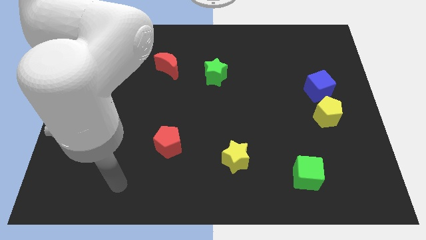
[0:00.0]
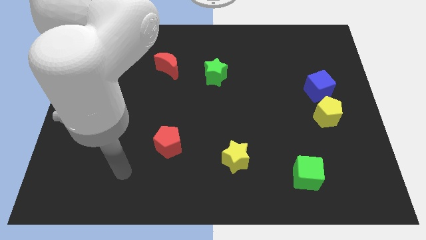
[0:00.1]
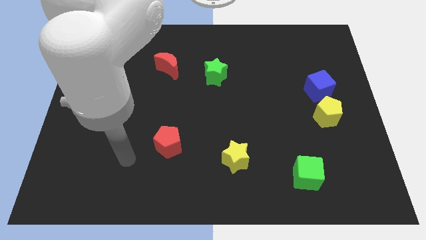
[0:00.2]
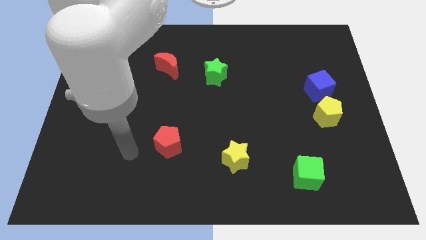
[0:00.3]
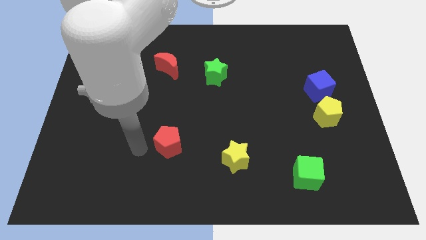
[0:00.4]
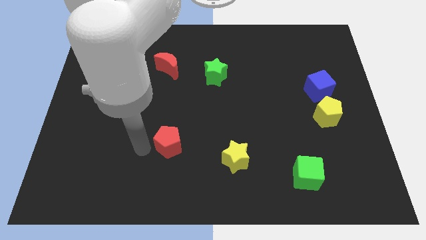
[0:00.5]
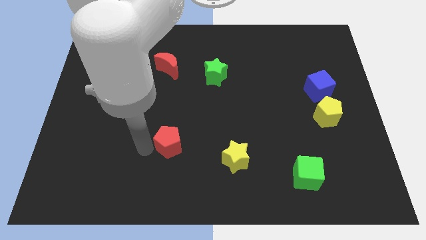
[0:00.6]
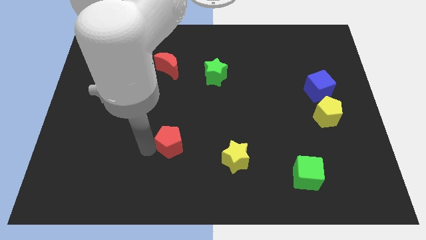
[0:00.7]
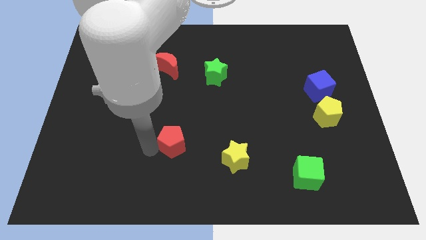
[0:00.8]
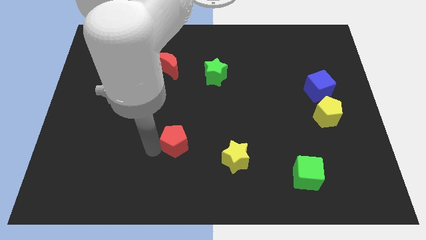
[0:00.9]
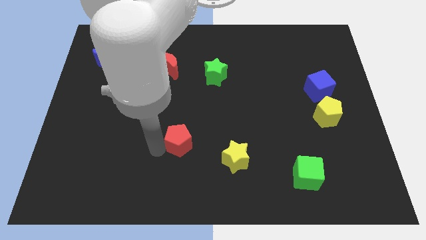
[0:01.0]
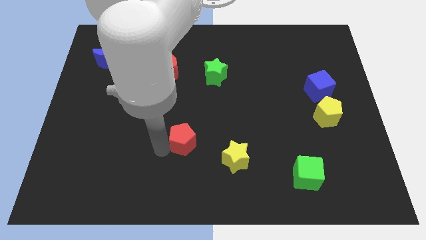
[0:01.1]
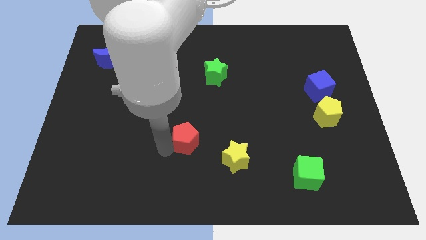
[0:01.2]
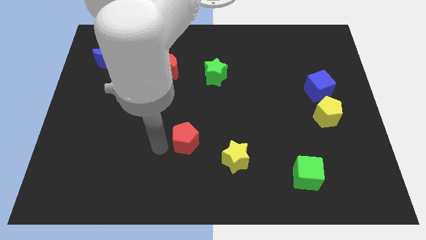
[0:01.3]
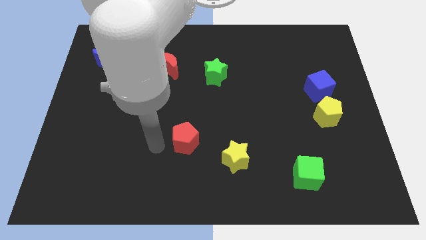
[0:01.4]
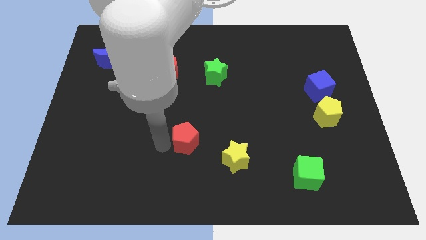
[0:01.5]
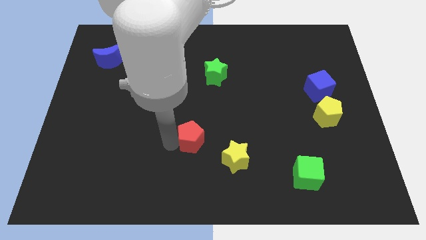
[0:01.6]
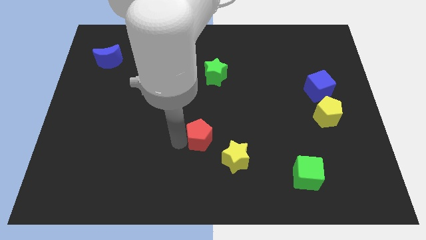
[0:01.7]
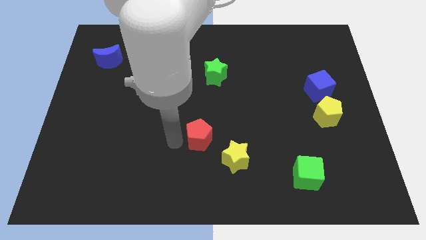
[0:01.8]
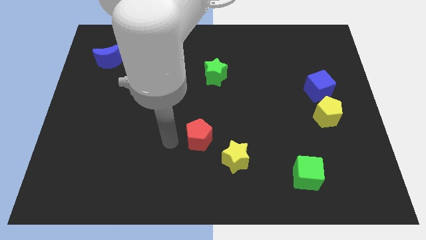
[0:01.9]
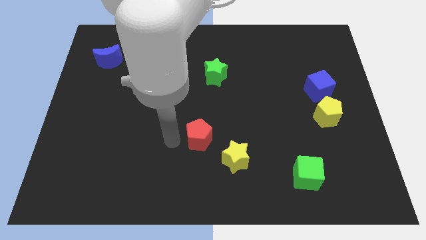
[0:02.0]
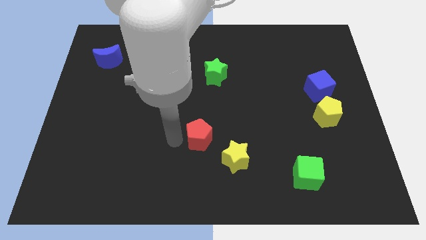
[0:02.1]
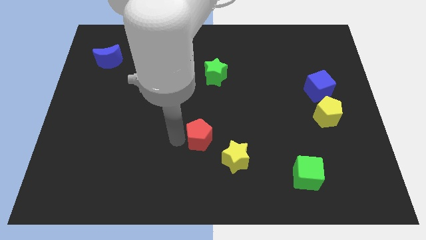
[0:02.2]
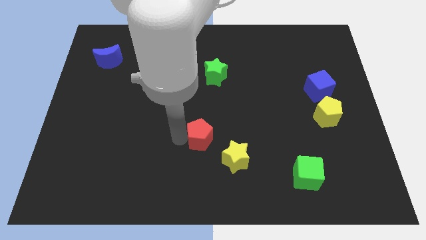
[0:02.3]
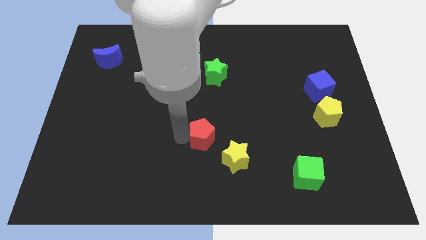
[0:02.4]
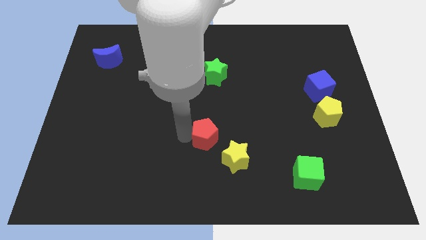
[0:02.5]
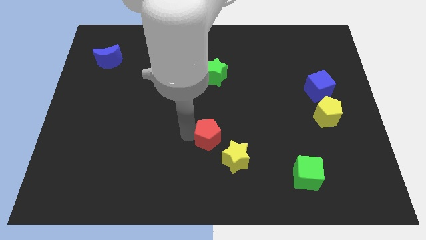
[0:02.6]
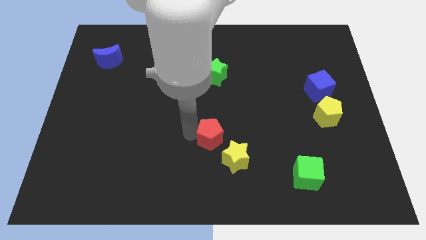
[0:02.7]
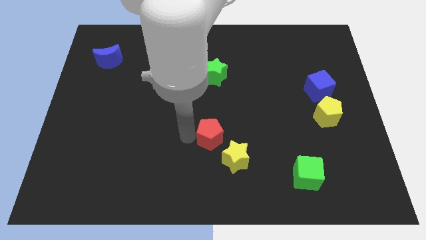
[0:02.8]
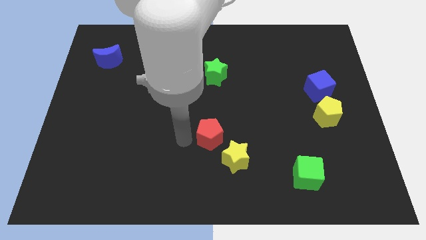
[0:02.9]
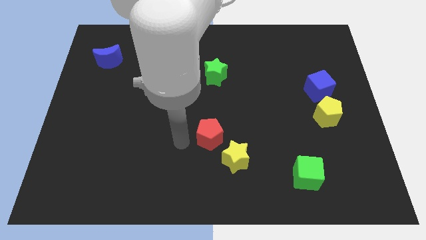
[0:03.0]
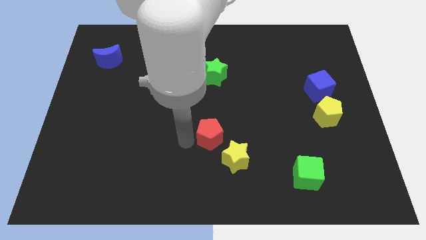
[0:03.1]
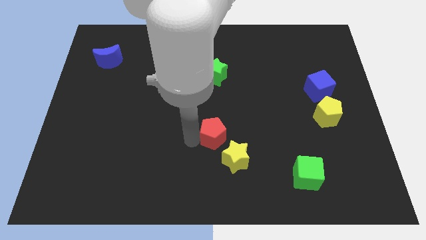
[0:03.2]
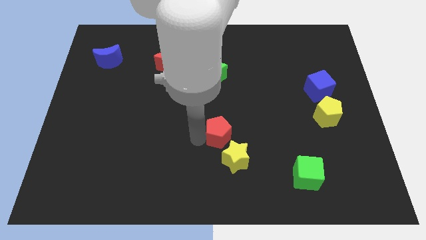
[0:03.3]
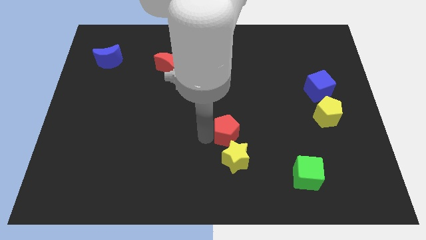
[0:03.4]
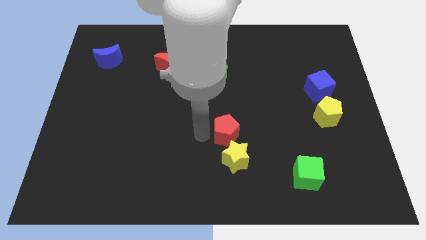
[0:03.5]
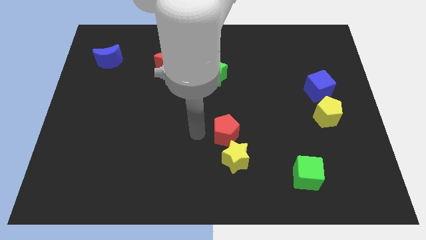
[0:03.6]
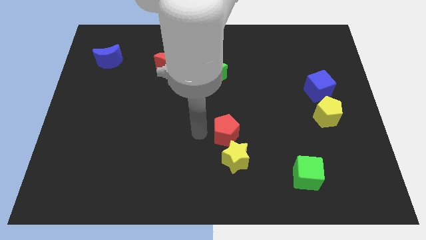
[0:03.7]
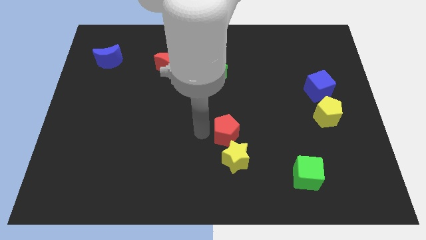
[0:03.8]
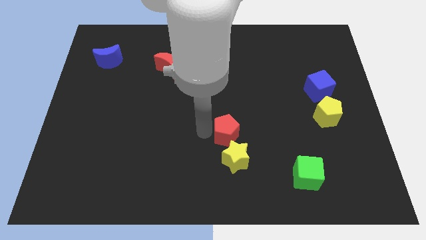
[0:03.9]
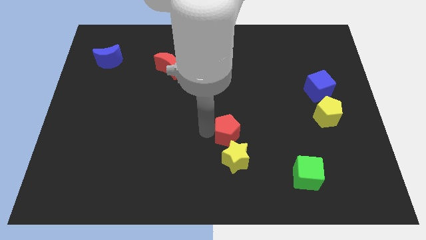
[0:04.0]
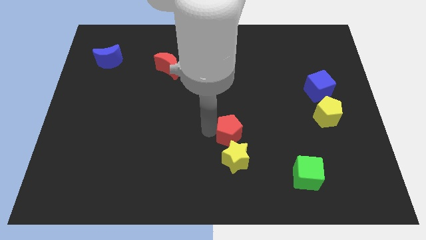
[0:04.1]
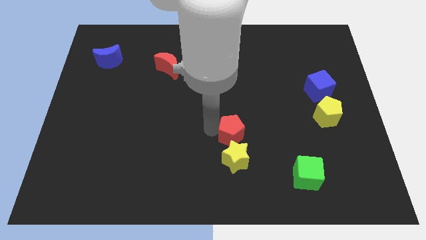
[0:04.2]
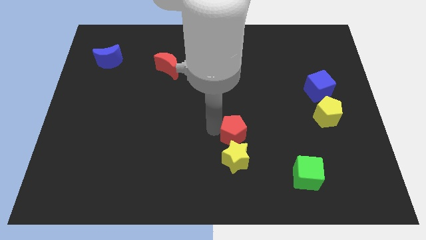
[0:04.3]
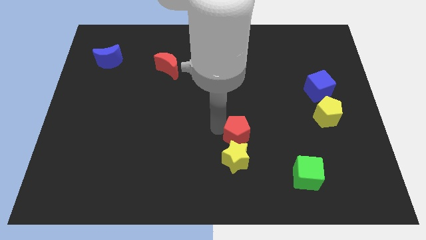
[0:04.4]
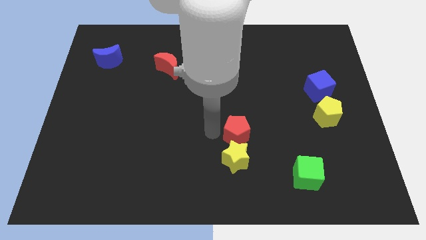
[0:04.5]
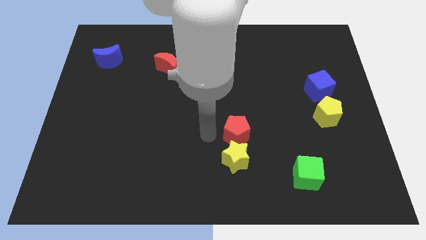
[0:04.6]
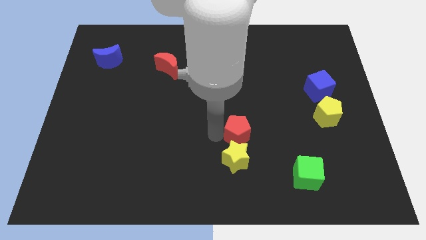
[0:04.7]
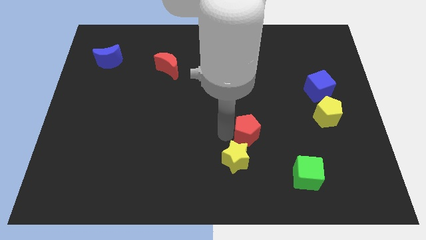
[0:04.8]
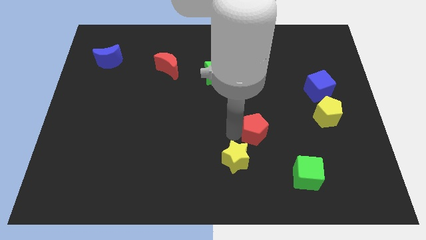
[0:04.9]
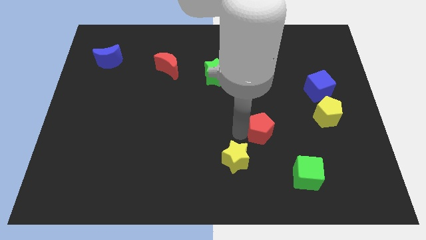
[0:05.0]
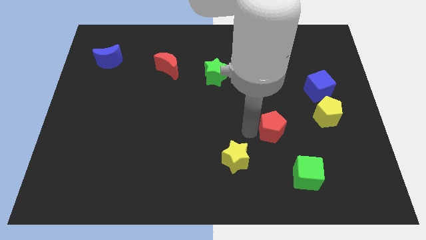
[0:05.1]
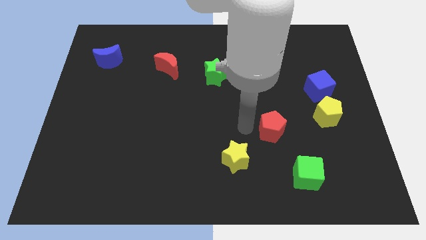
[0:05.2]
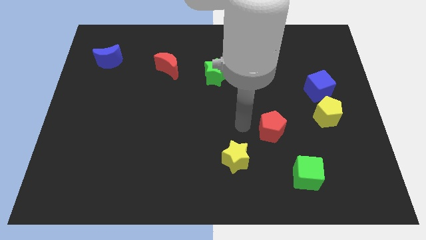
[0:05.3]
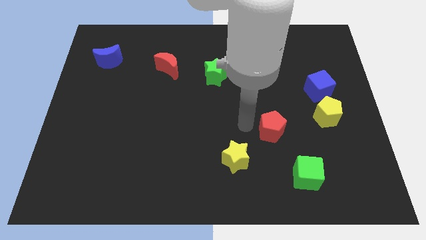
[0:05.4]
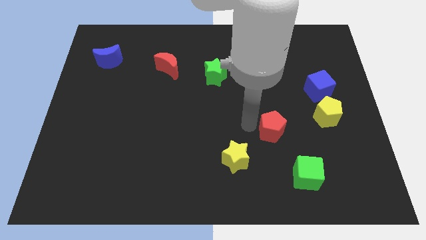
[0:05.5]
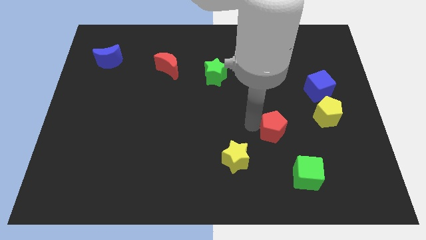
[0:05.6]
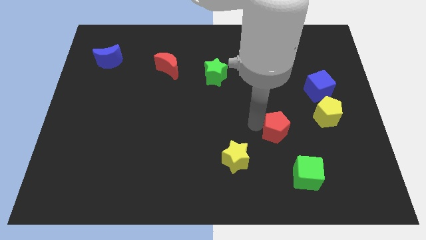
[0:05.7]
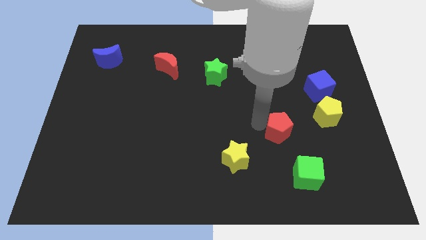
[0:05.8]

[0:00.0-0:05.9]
put the red pentagon to the top of the green cube

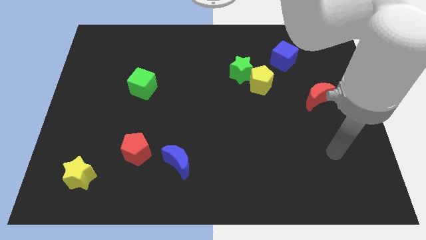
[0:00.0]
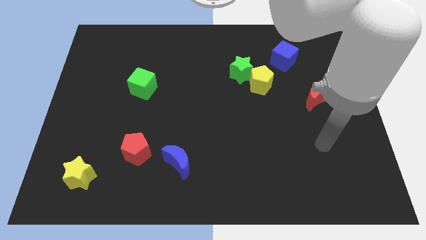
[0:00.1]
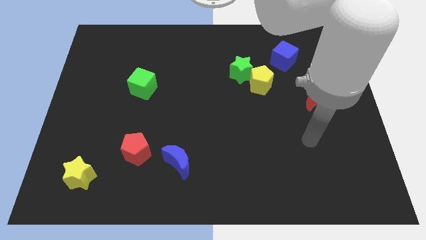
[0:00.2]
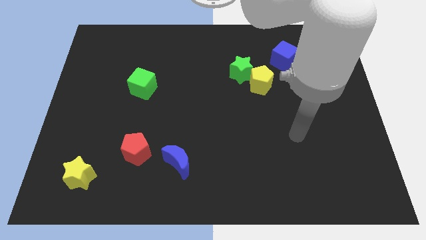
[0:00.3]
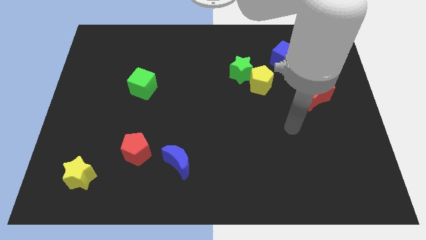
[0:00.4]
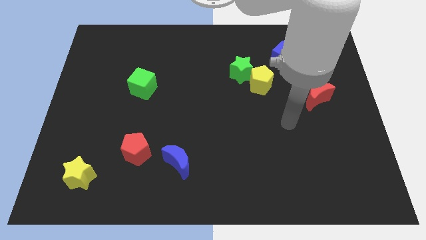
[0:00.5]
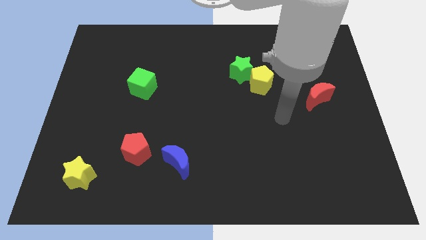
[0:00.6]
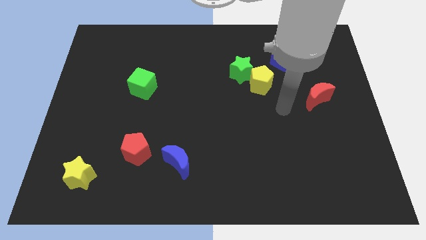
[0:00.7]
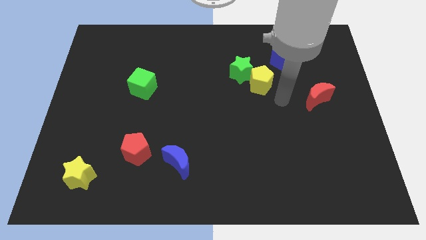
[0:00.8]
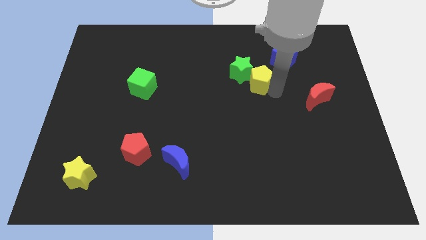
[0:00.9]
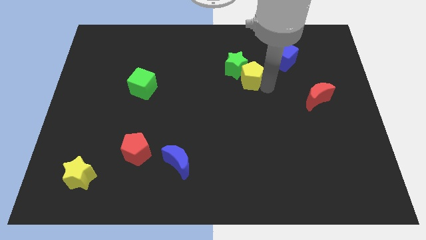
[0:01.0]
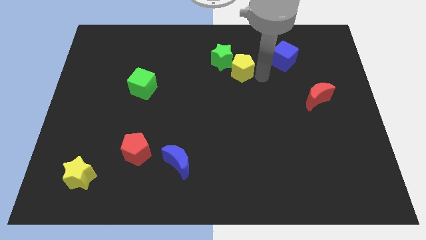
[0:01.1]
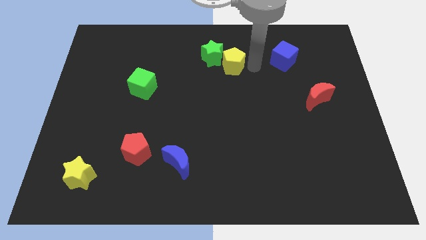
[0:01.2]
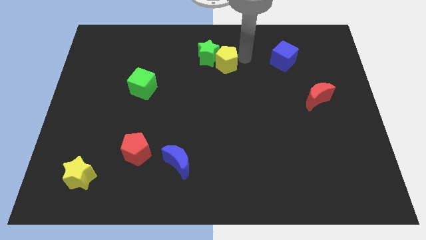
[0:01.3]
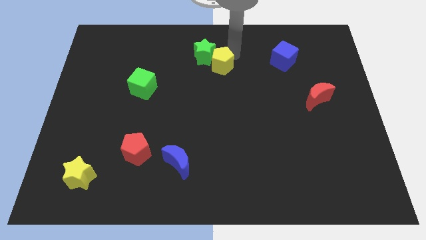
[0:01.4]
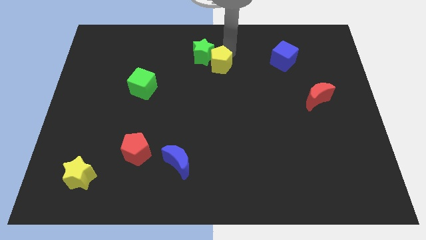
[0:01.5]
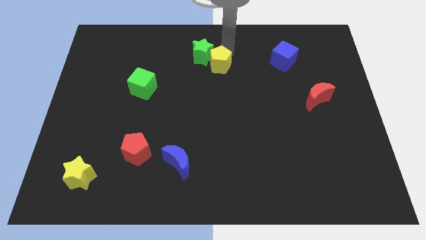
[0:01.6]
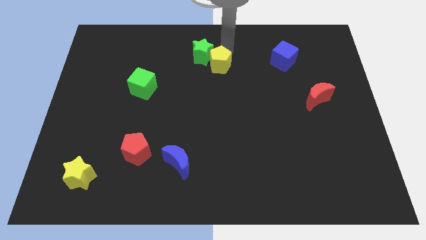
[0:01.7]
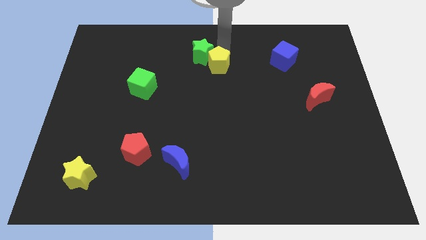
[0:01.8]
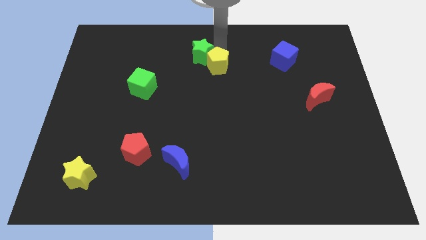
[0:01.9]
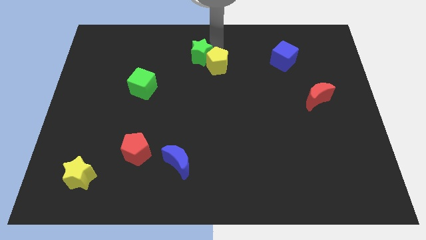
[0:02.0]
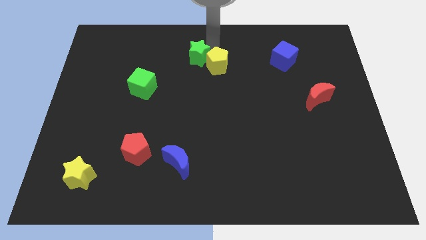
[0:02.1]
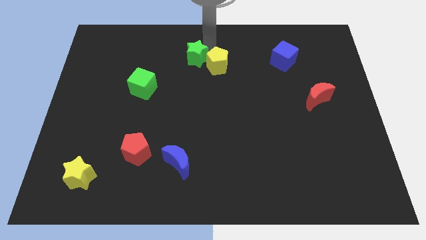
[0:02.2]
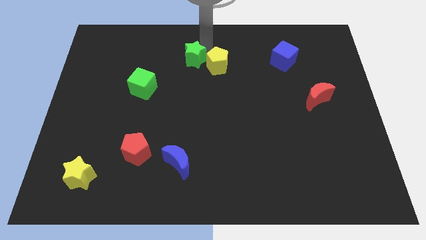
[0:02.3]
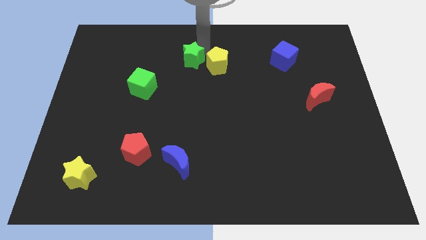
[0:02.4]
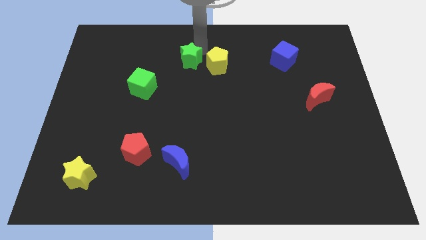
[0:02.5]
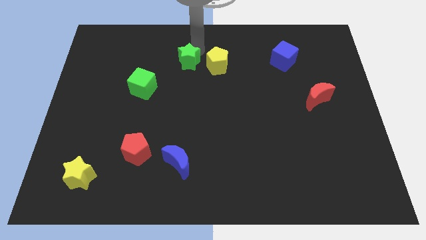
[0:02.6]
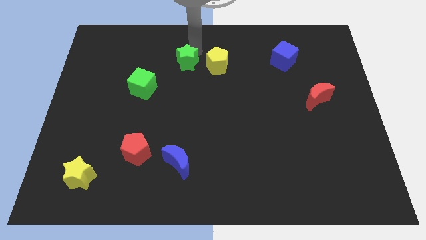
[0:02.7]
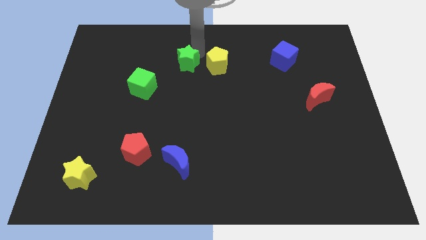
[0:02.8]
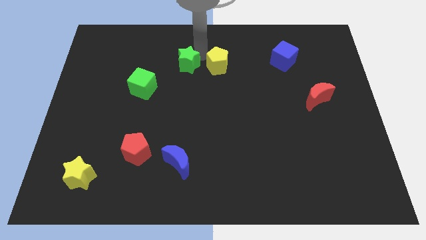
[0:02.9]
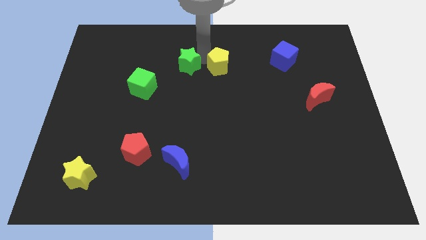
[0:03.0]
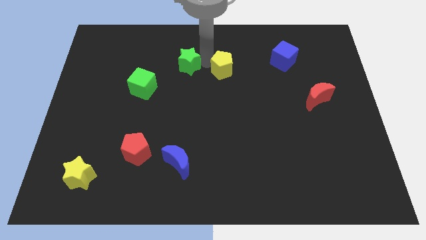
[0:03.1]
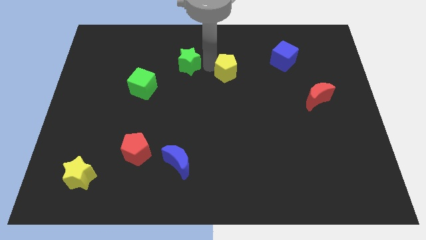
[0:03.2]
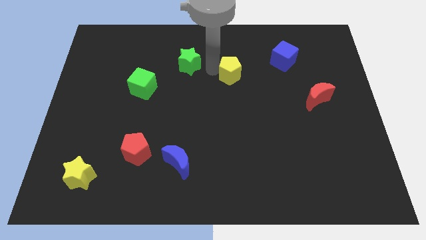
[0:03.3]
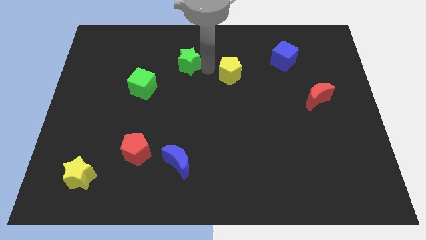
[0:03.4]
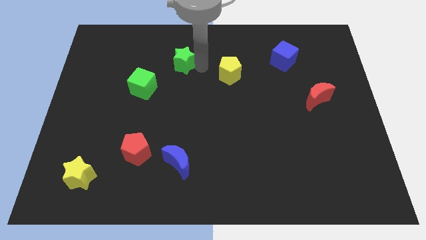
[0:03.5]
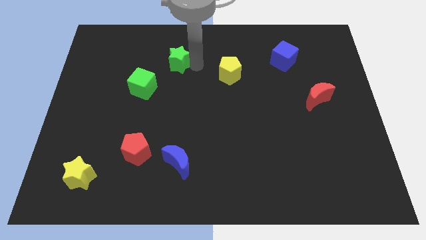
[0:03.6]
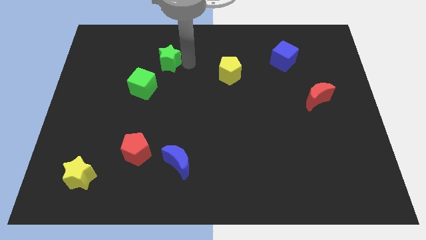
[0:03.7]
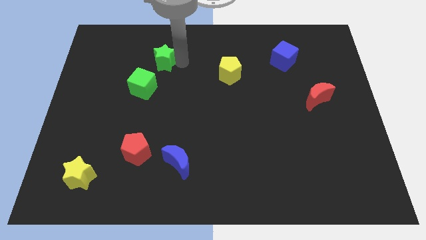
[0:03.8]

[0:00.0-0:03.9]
put the green star to the top of the green cube
